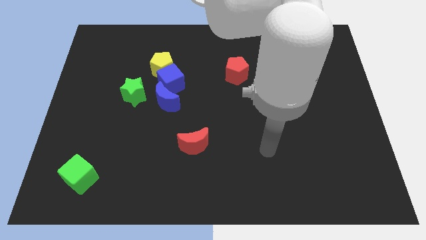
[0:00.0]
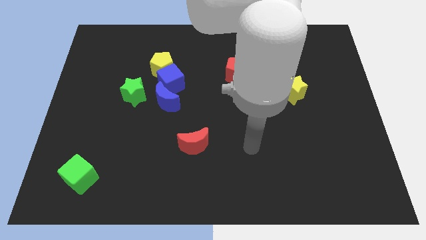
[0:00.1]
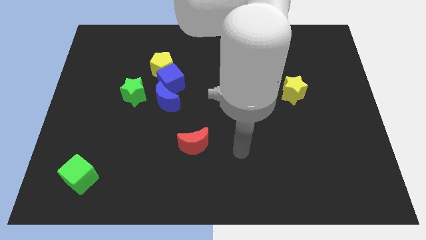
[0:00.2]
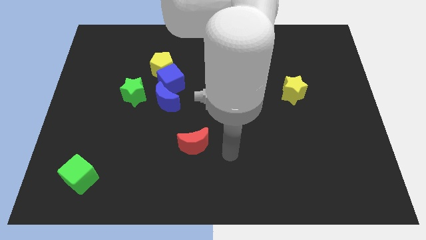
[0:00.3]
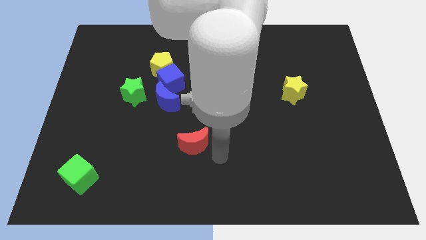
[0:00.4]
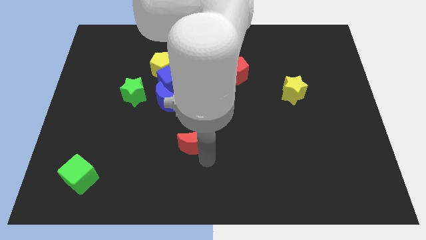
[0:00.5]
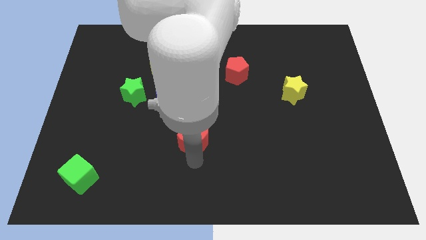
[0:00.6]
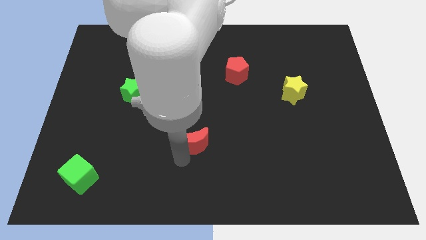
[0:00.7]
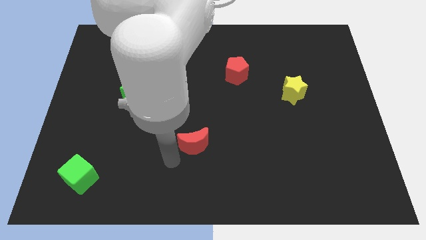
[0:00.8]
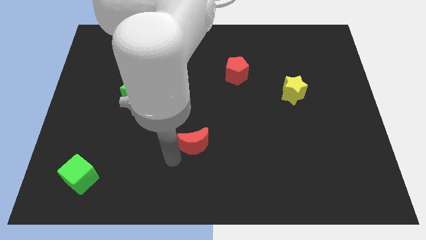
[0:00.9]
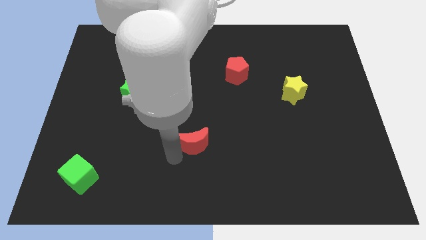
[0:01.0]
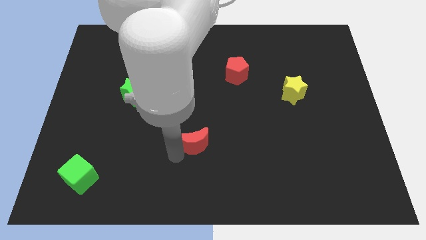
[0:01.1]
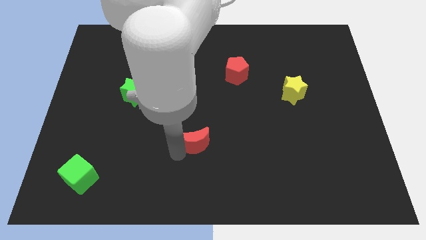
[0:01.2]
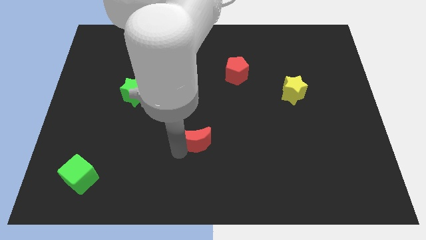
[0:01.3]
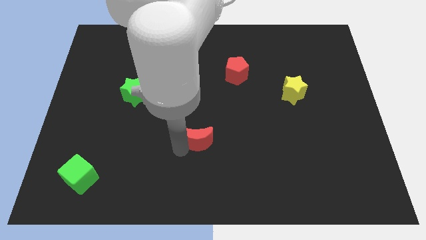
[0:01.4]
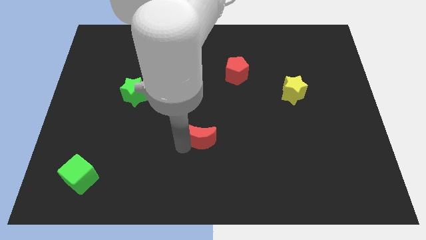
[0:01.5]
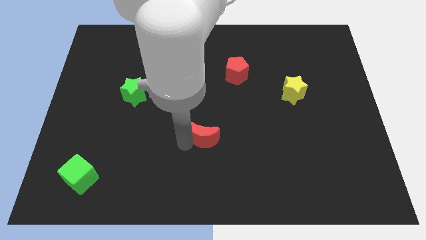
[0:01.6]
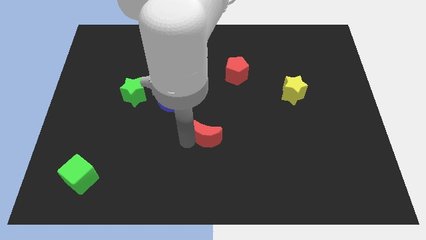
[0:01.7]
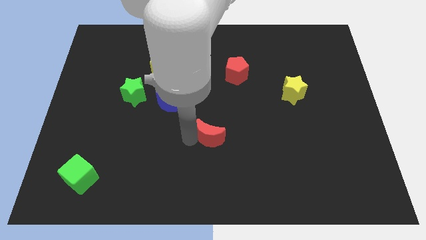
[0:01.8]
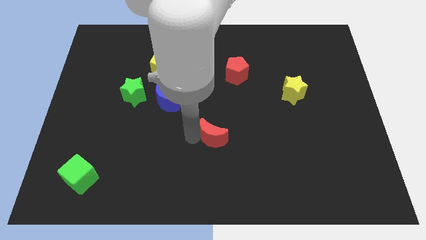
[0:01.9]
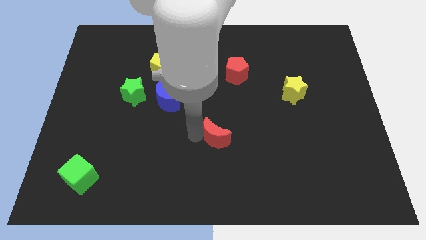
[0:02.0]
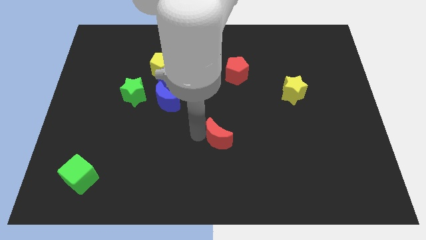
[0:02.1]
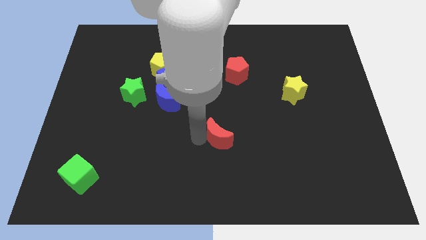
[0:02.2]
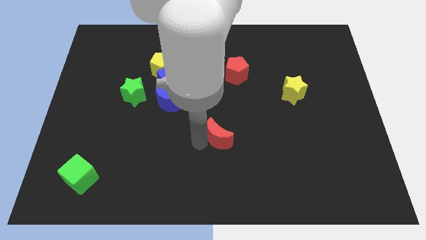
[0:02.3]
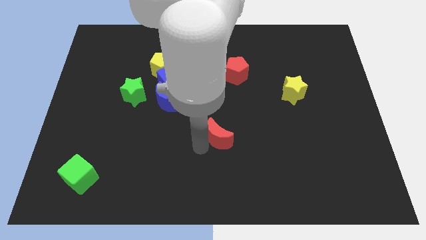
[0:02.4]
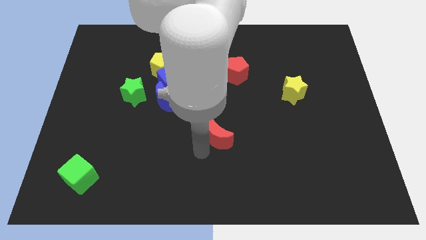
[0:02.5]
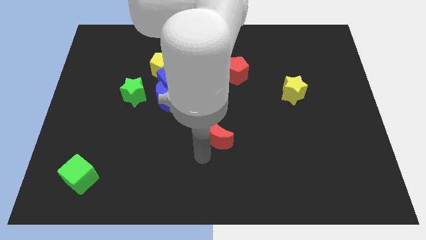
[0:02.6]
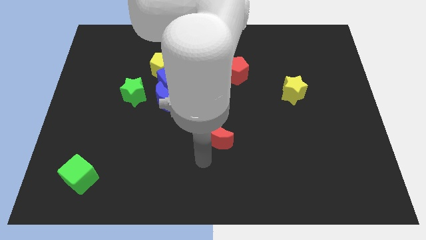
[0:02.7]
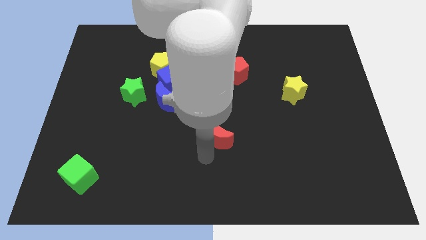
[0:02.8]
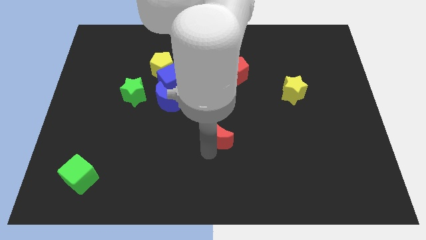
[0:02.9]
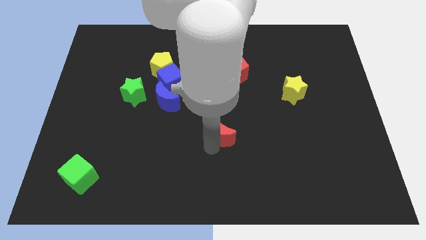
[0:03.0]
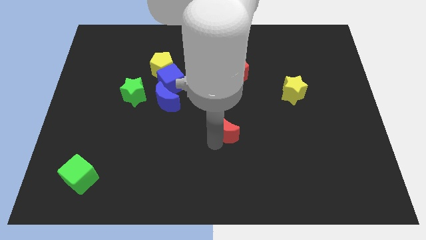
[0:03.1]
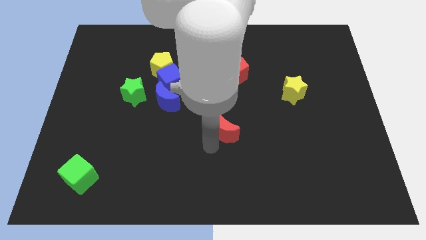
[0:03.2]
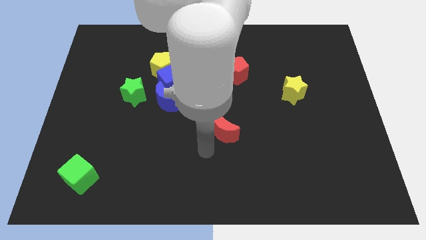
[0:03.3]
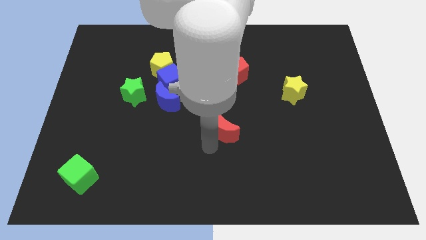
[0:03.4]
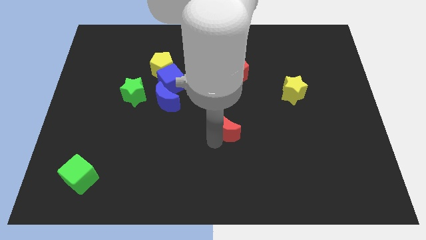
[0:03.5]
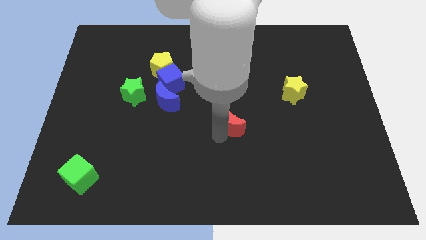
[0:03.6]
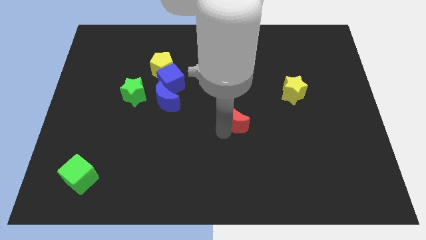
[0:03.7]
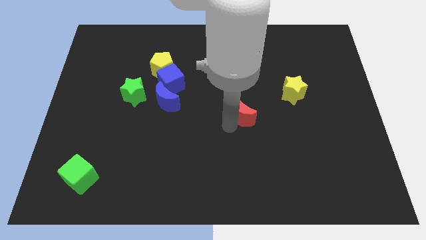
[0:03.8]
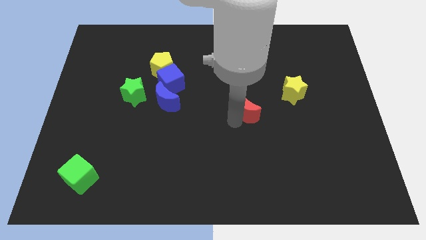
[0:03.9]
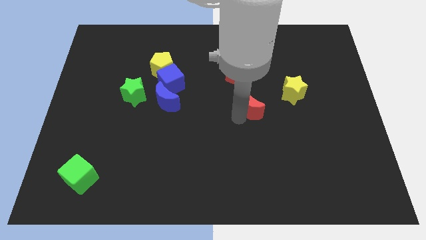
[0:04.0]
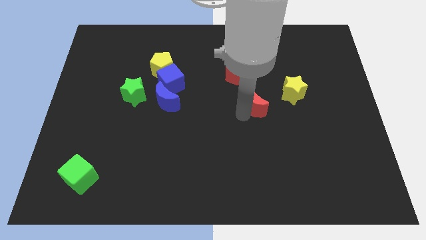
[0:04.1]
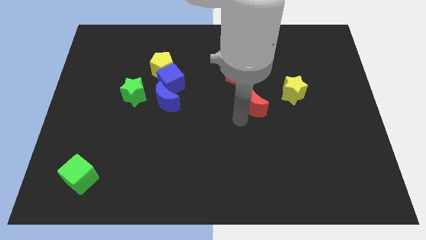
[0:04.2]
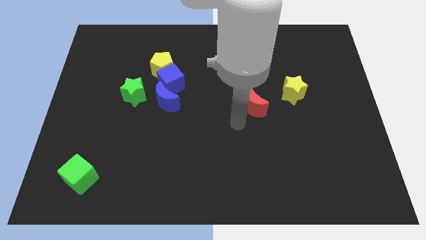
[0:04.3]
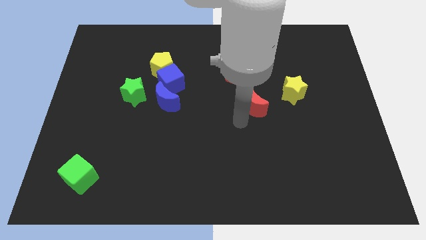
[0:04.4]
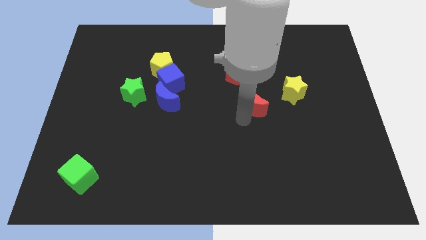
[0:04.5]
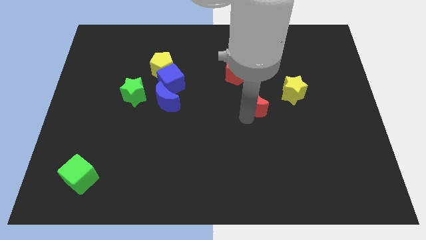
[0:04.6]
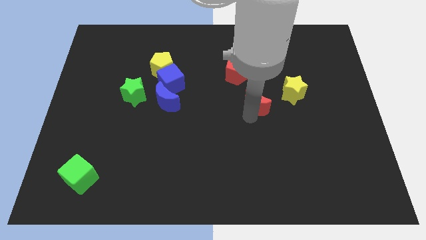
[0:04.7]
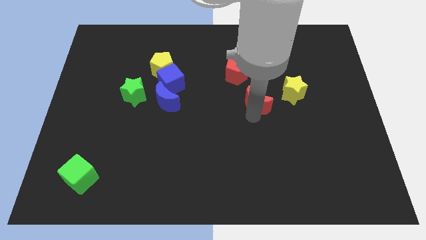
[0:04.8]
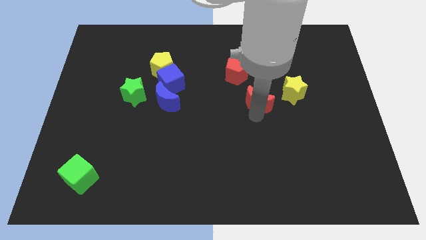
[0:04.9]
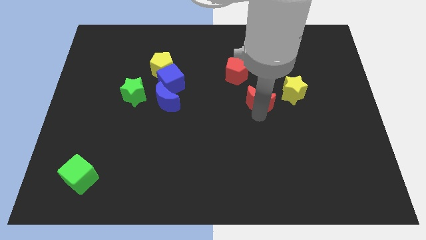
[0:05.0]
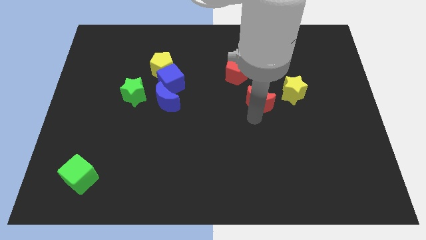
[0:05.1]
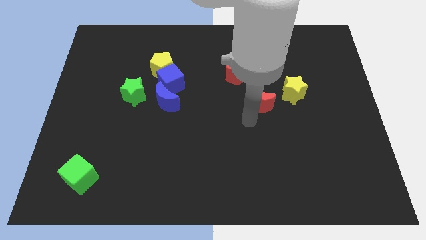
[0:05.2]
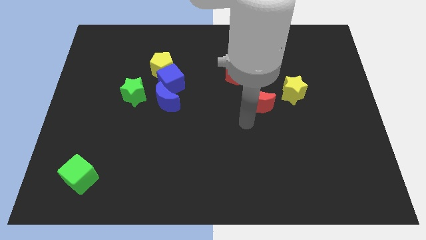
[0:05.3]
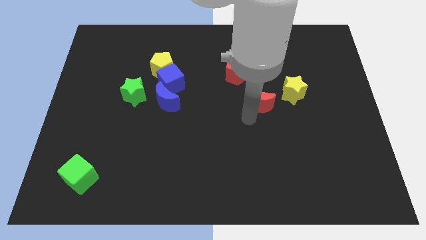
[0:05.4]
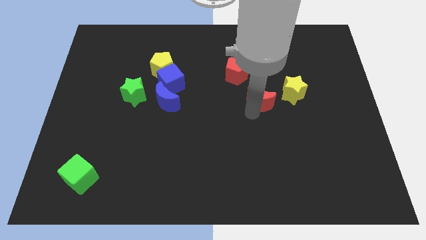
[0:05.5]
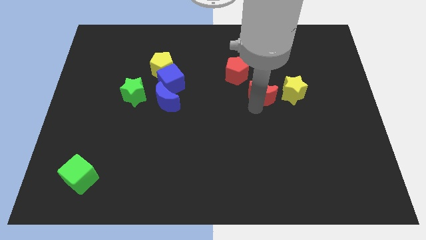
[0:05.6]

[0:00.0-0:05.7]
push the red moon diagonally up and right

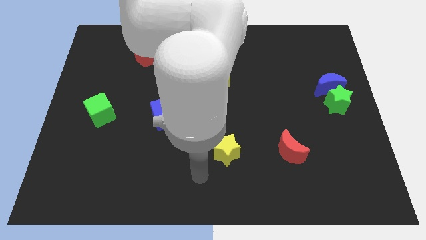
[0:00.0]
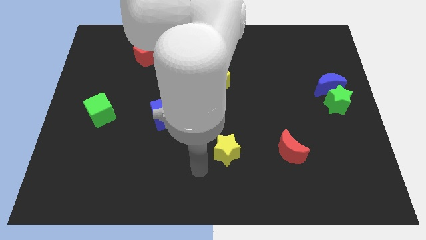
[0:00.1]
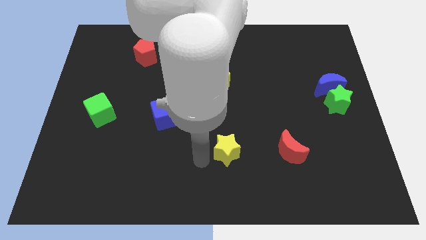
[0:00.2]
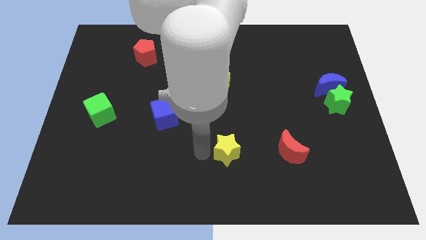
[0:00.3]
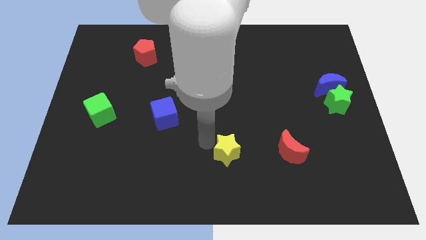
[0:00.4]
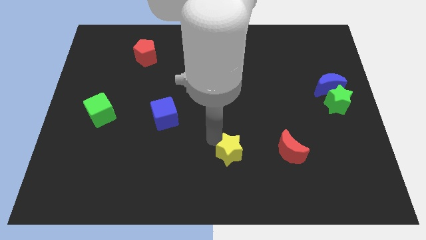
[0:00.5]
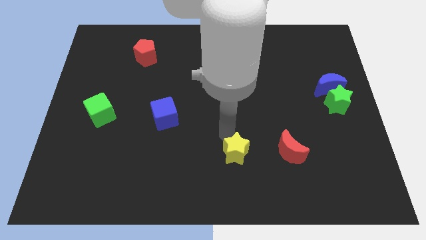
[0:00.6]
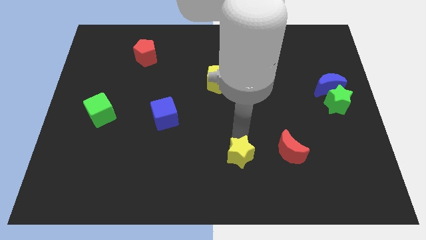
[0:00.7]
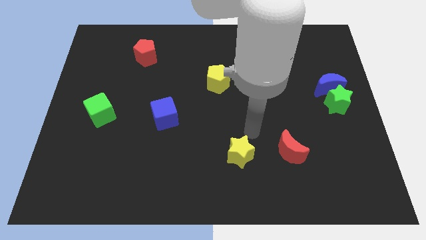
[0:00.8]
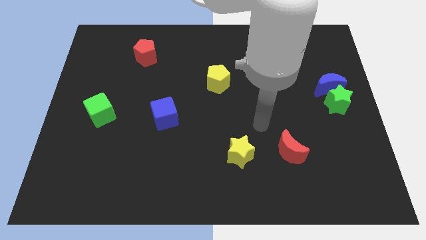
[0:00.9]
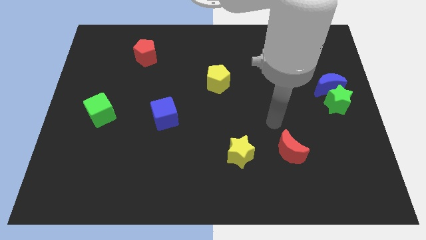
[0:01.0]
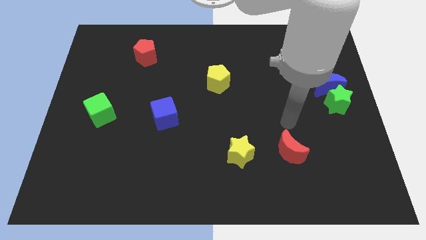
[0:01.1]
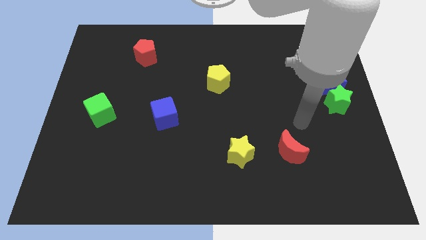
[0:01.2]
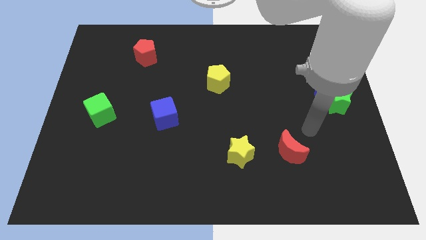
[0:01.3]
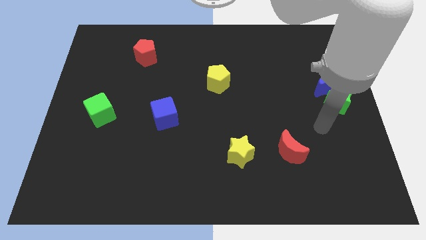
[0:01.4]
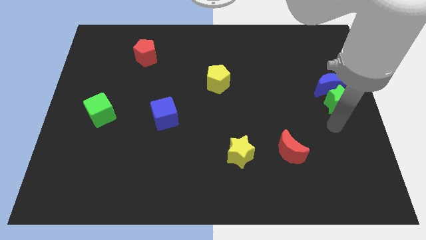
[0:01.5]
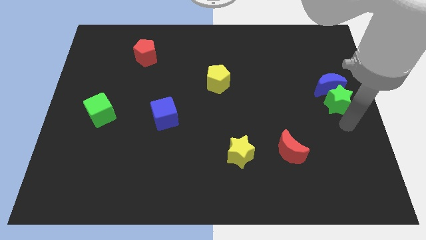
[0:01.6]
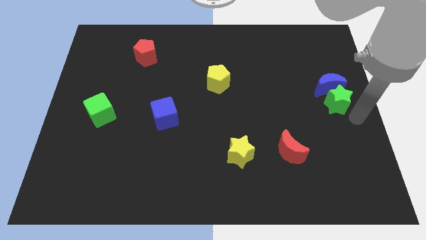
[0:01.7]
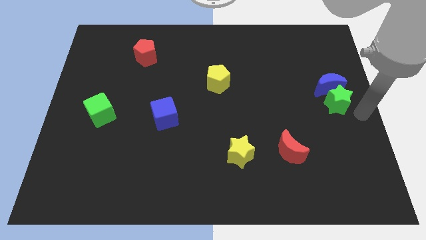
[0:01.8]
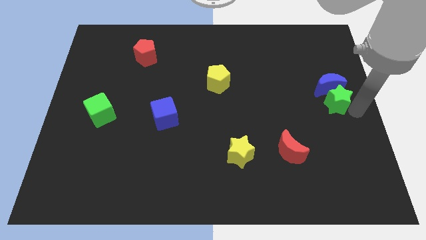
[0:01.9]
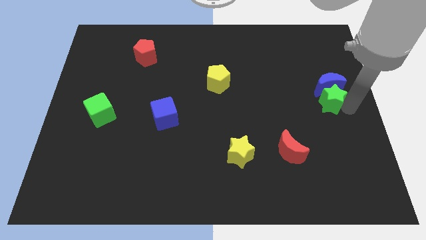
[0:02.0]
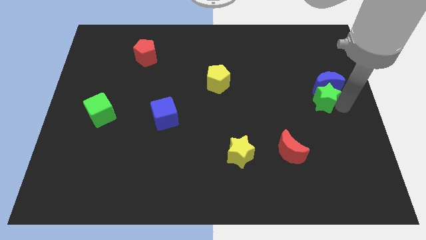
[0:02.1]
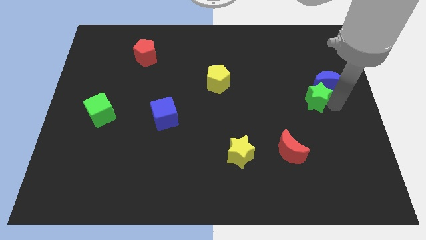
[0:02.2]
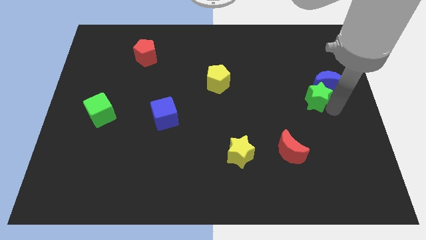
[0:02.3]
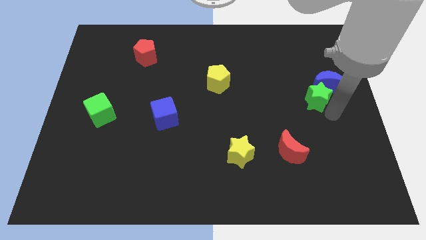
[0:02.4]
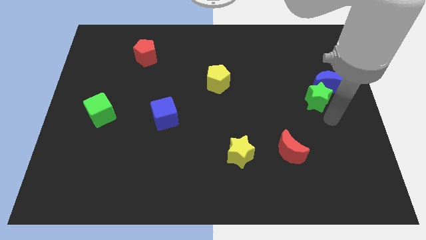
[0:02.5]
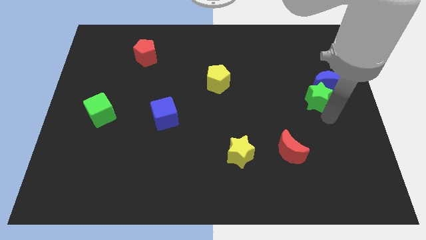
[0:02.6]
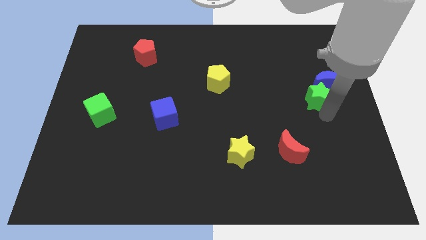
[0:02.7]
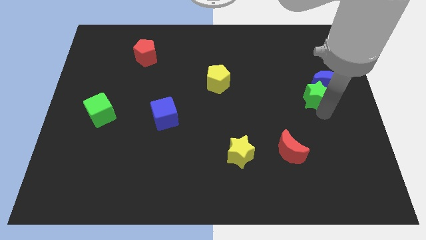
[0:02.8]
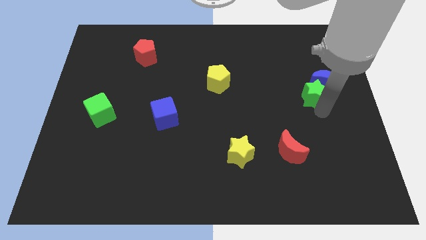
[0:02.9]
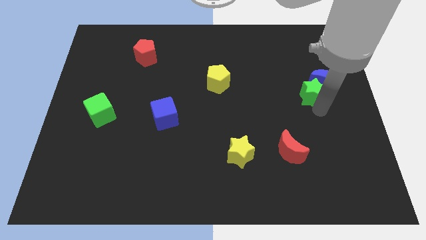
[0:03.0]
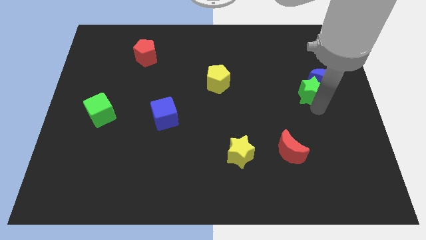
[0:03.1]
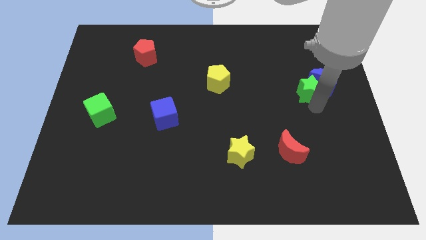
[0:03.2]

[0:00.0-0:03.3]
slide the green star upwards and left a little
